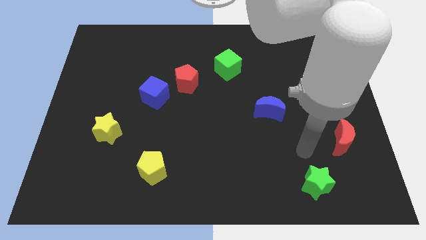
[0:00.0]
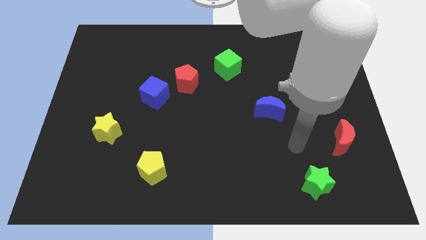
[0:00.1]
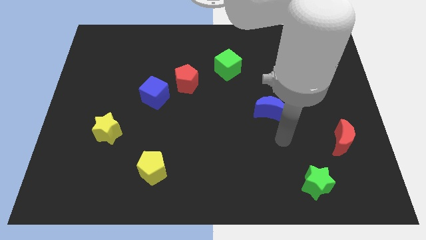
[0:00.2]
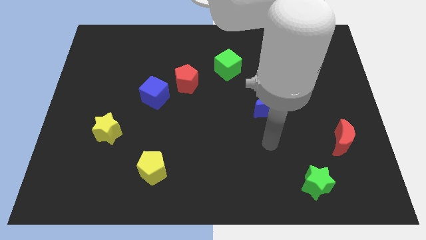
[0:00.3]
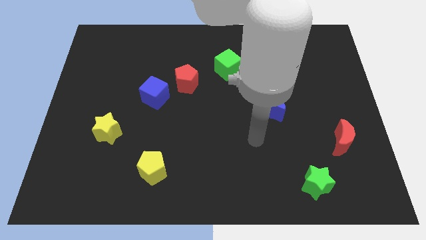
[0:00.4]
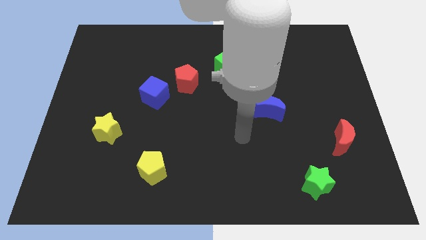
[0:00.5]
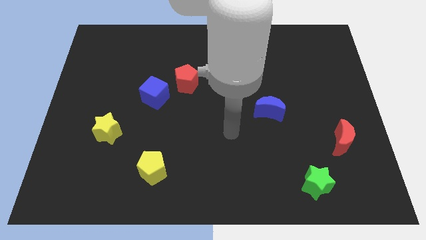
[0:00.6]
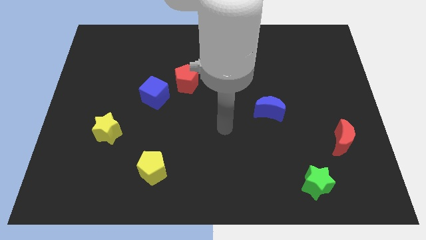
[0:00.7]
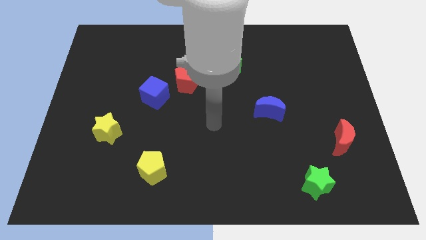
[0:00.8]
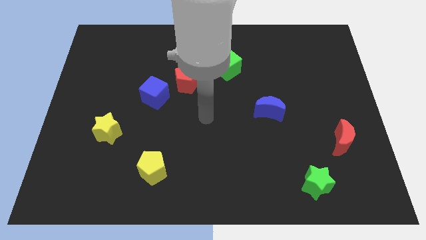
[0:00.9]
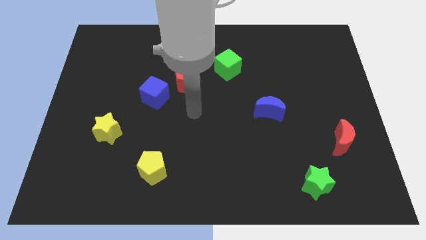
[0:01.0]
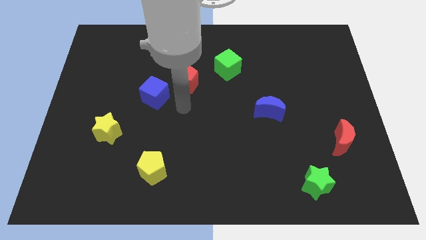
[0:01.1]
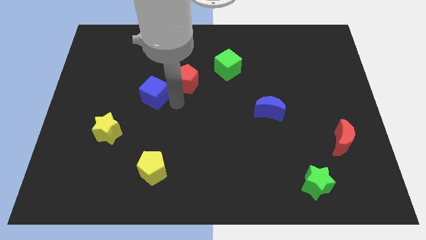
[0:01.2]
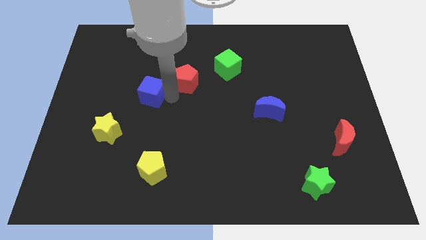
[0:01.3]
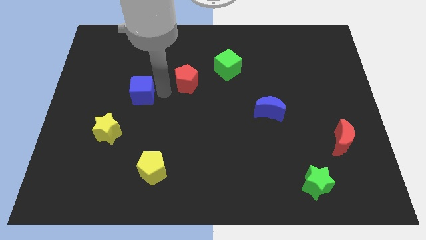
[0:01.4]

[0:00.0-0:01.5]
separate the red pentagon from the blue cube

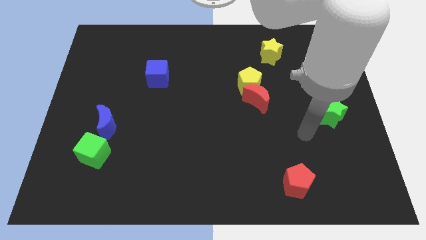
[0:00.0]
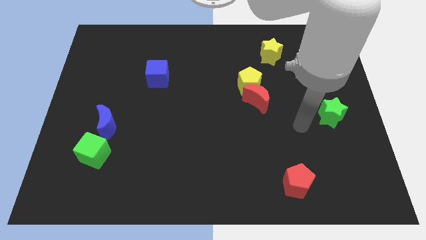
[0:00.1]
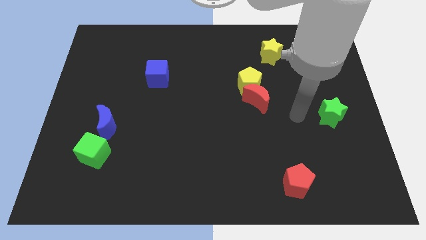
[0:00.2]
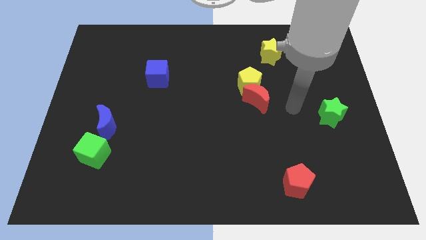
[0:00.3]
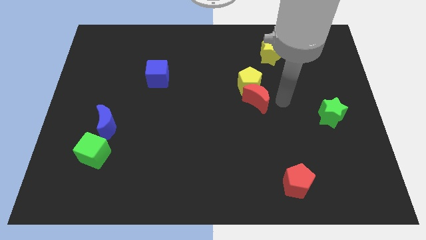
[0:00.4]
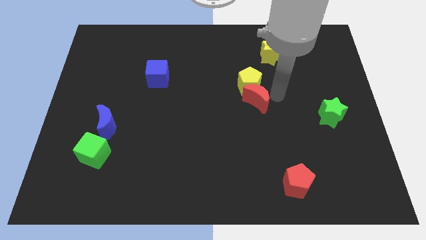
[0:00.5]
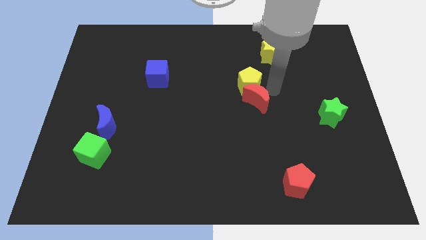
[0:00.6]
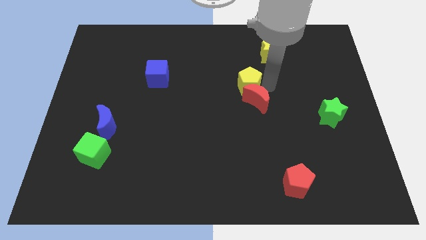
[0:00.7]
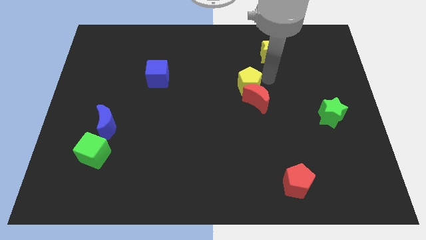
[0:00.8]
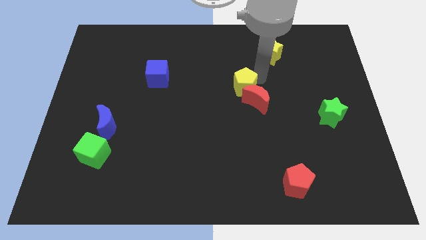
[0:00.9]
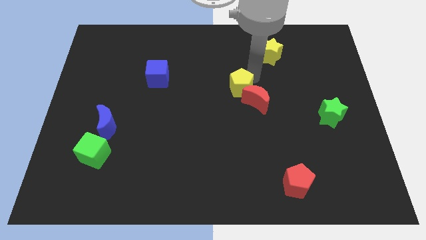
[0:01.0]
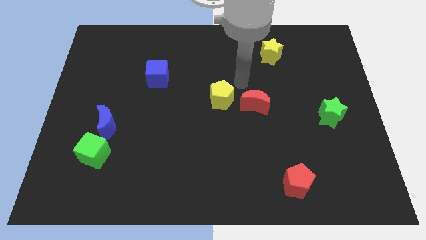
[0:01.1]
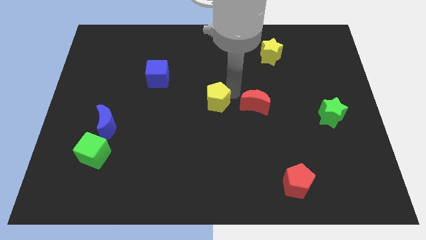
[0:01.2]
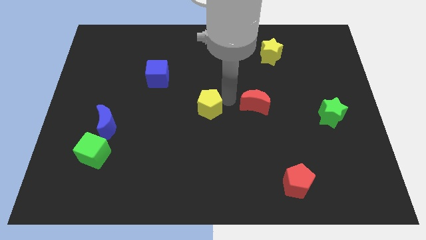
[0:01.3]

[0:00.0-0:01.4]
separate the red moon from the yellow pentagon

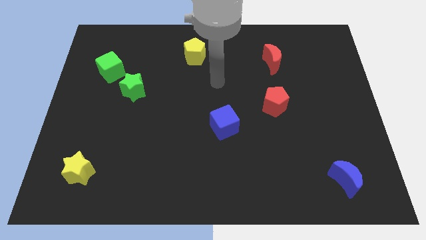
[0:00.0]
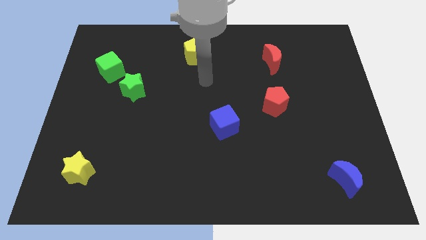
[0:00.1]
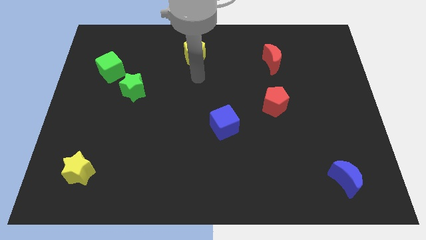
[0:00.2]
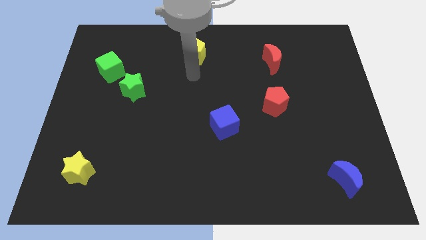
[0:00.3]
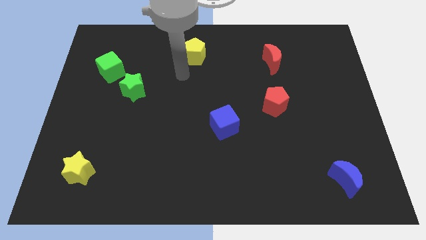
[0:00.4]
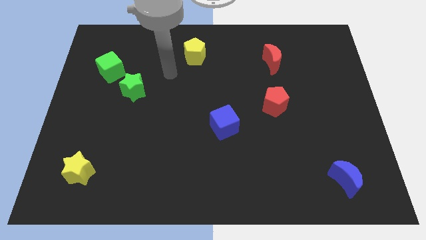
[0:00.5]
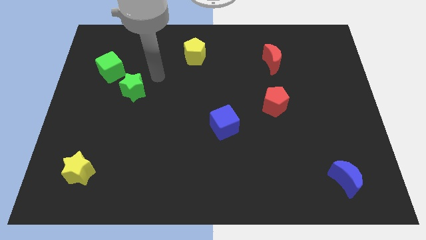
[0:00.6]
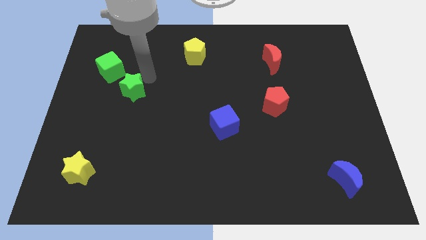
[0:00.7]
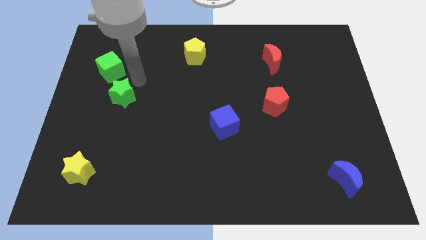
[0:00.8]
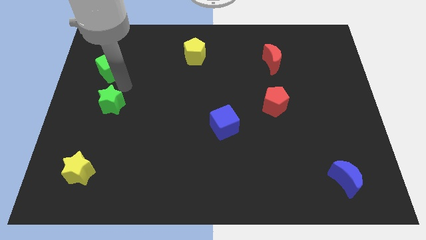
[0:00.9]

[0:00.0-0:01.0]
pull the green cube apart from the green star

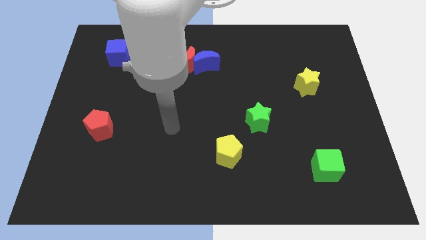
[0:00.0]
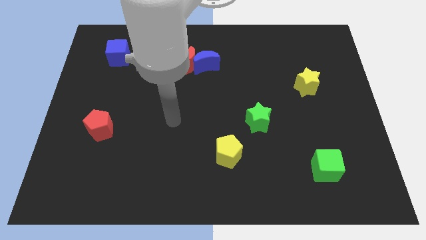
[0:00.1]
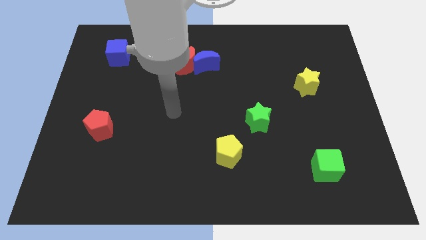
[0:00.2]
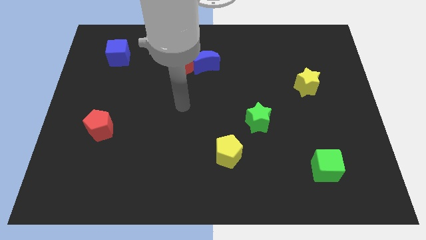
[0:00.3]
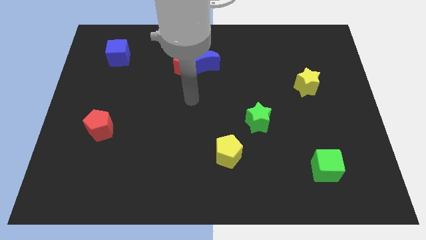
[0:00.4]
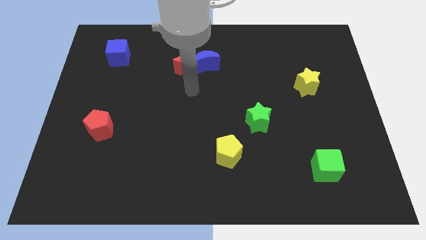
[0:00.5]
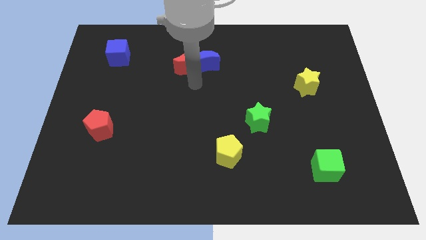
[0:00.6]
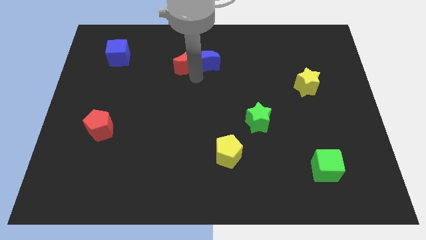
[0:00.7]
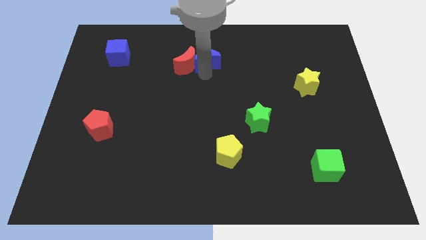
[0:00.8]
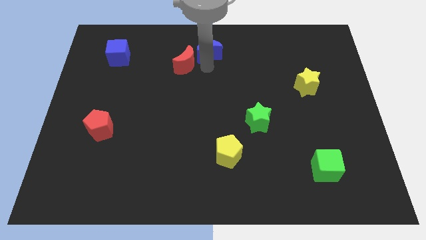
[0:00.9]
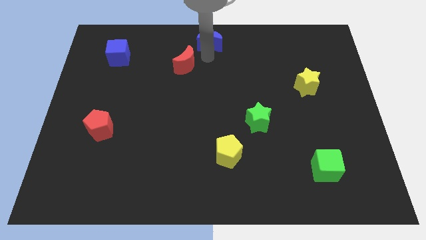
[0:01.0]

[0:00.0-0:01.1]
pull the red moon apart from the blue moon

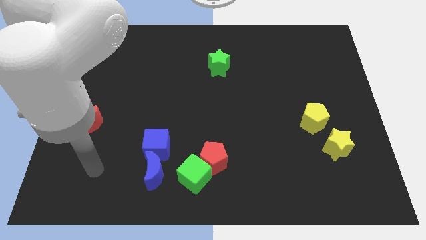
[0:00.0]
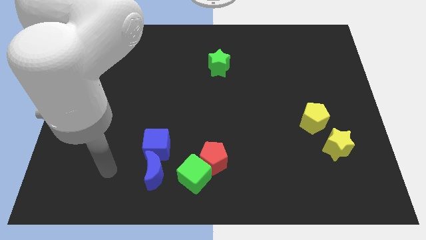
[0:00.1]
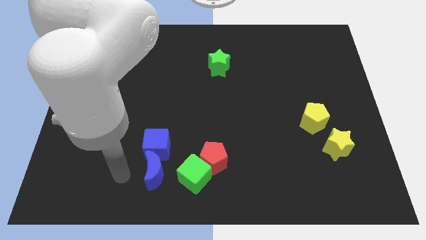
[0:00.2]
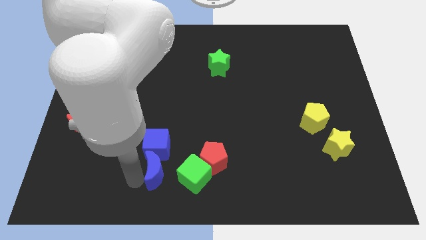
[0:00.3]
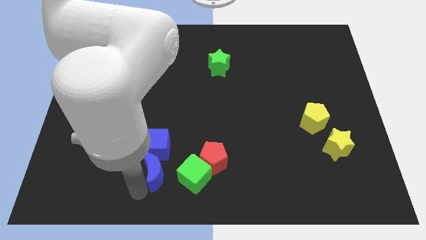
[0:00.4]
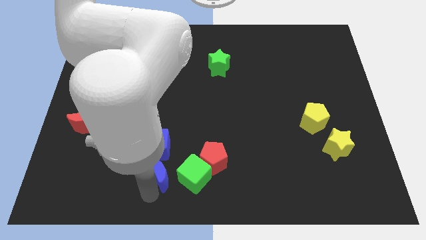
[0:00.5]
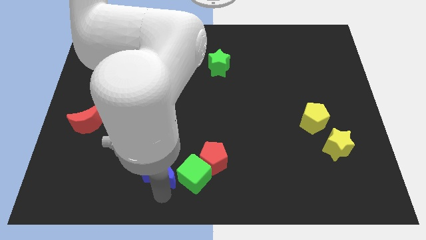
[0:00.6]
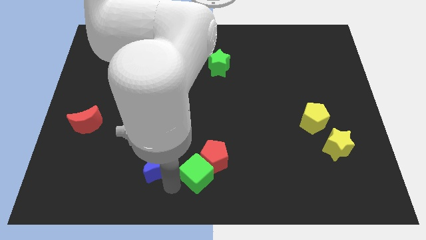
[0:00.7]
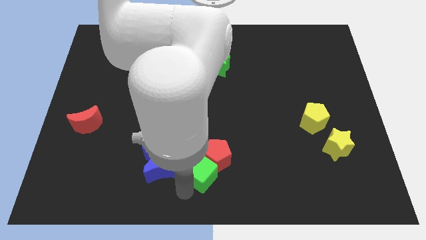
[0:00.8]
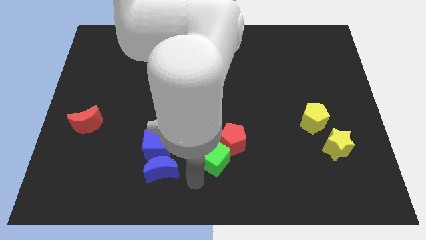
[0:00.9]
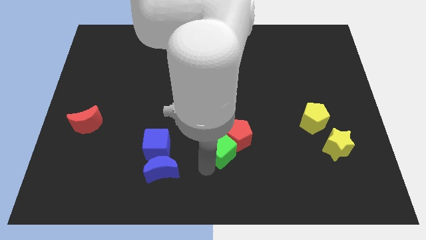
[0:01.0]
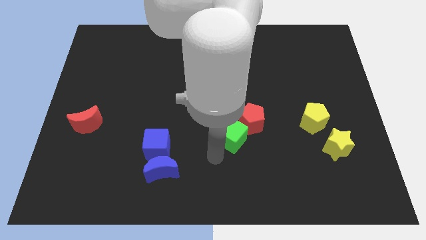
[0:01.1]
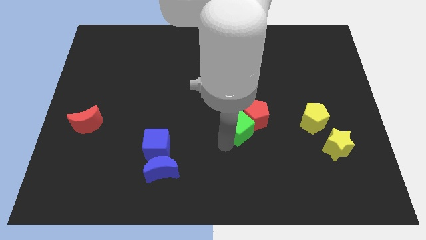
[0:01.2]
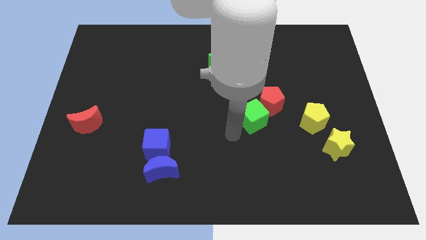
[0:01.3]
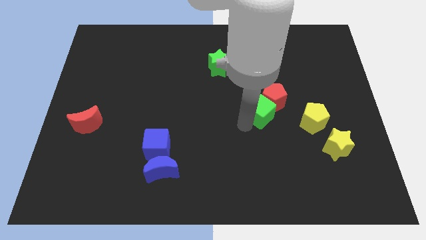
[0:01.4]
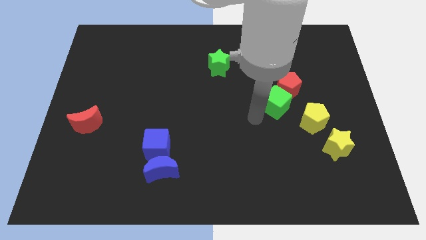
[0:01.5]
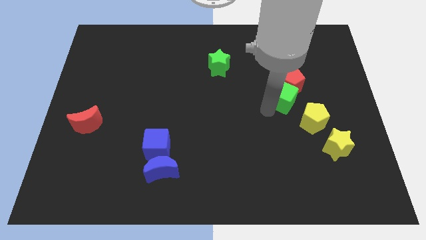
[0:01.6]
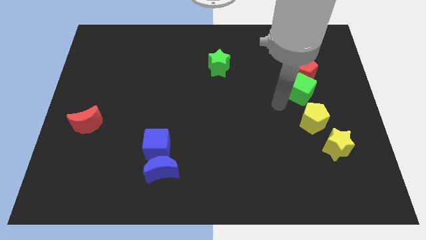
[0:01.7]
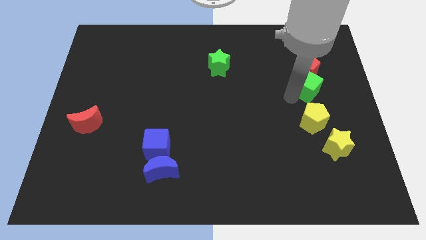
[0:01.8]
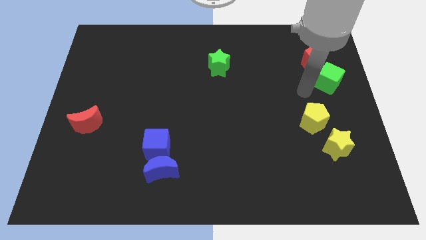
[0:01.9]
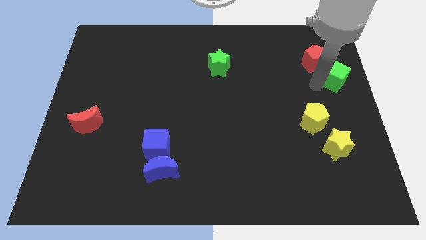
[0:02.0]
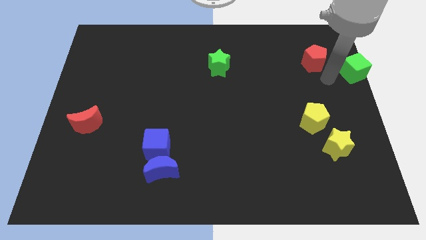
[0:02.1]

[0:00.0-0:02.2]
separate the red pentagon from the green cube

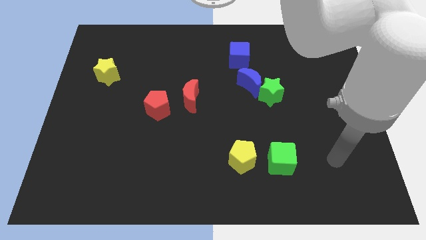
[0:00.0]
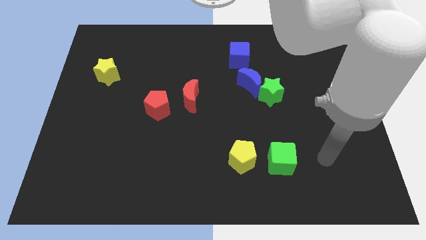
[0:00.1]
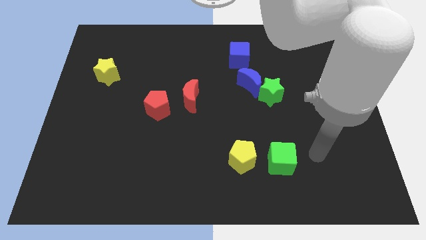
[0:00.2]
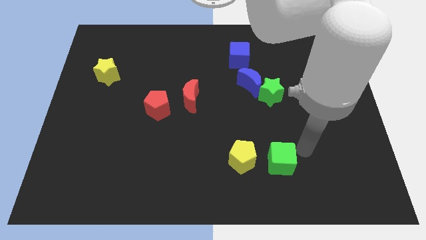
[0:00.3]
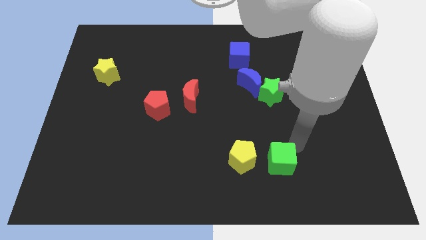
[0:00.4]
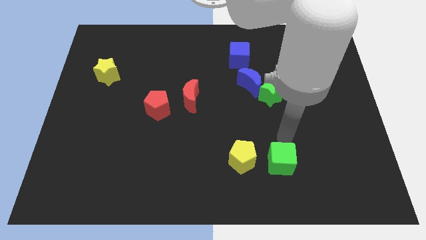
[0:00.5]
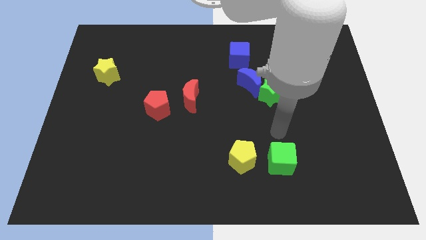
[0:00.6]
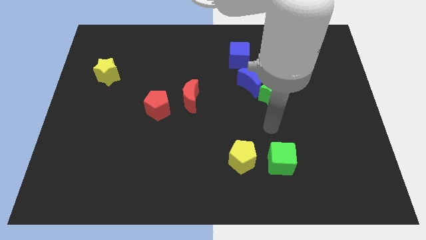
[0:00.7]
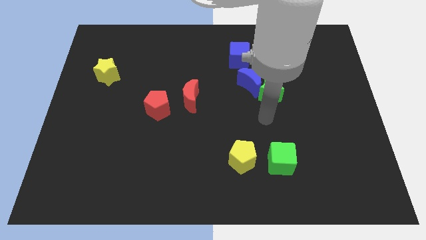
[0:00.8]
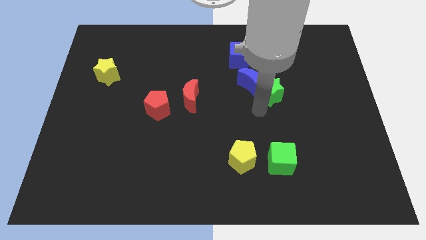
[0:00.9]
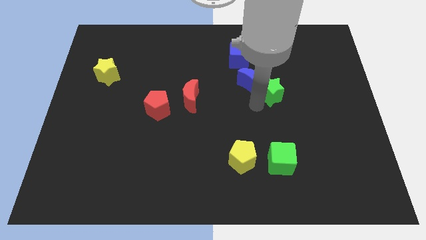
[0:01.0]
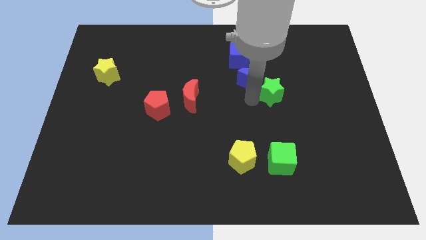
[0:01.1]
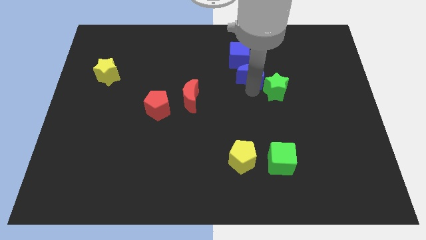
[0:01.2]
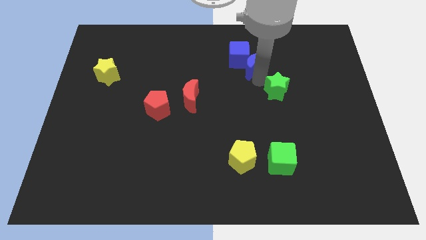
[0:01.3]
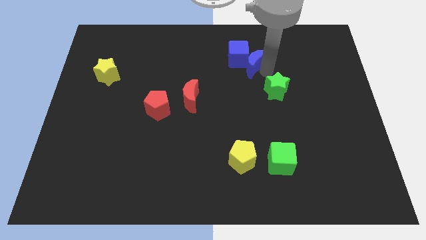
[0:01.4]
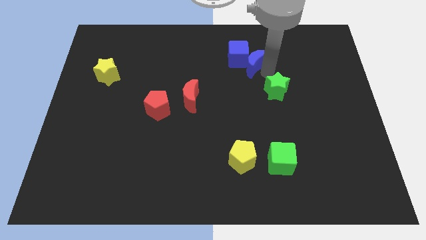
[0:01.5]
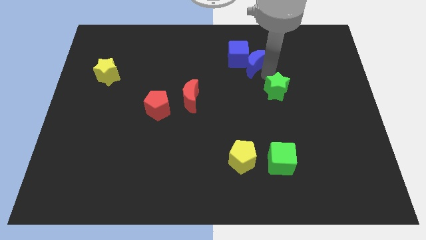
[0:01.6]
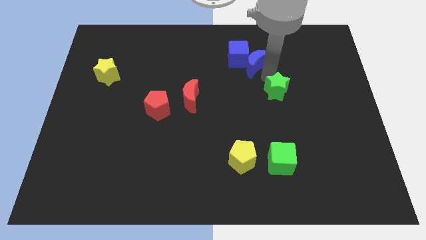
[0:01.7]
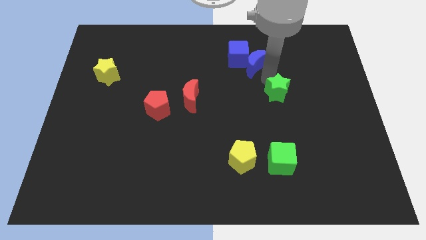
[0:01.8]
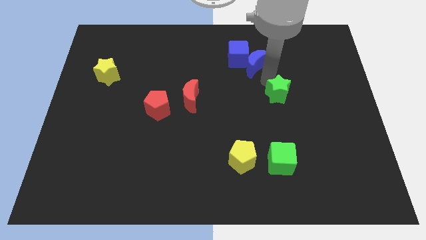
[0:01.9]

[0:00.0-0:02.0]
move the green star away from the blue moon

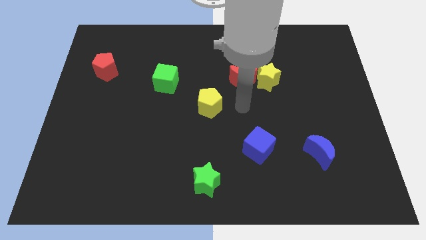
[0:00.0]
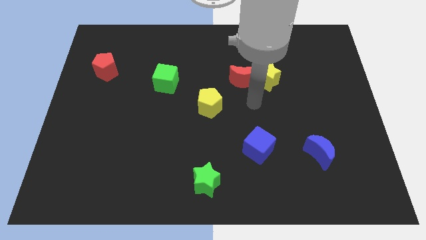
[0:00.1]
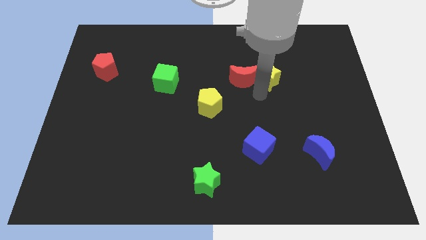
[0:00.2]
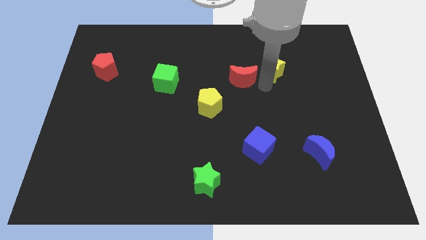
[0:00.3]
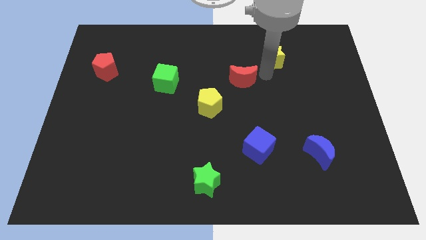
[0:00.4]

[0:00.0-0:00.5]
move the red moon away from the yellow star
